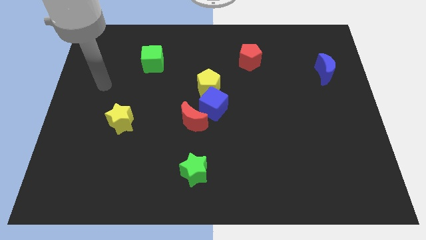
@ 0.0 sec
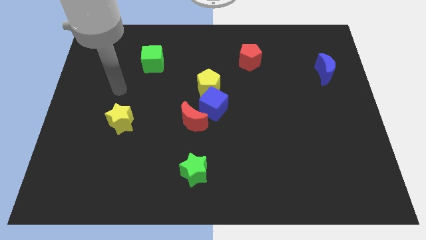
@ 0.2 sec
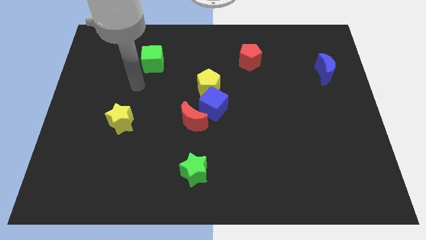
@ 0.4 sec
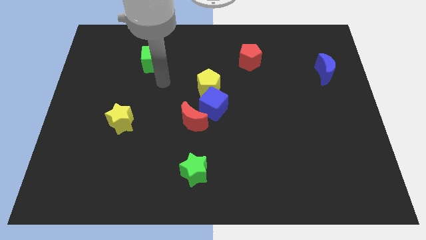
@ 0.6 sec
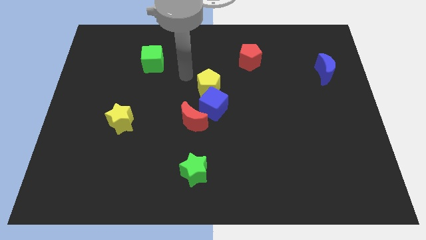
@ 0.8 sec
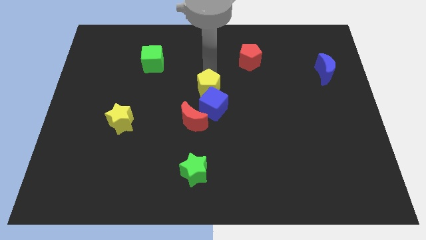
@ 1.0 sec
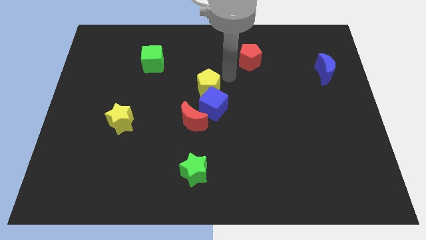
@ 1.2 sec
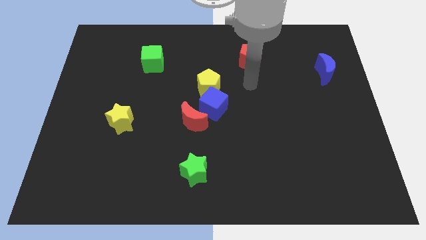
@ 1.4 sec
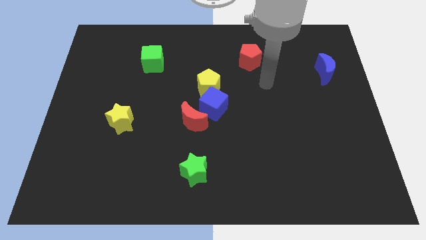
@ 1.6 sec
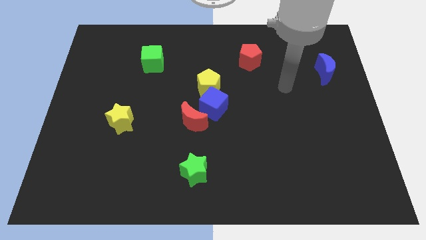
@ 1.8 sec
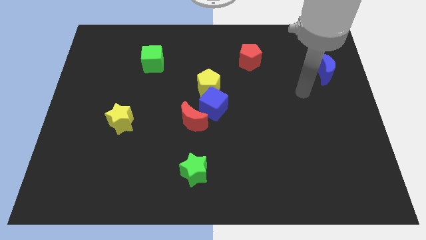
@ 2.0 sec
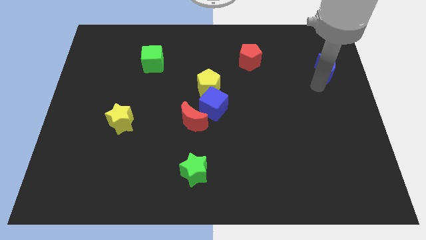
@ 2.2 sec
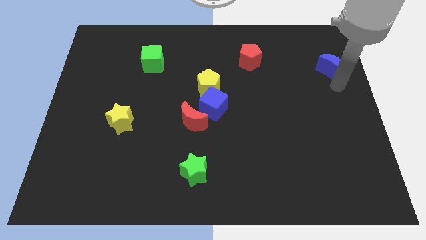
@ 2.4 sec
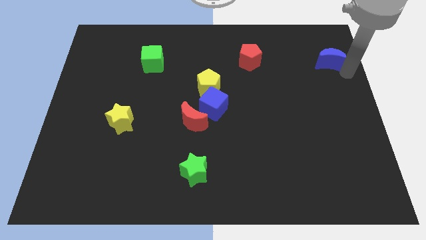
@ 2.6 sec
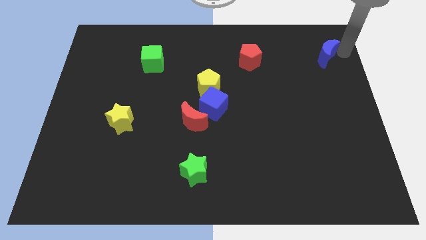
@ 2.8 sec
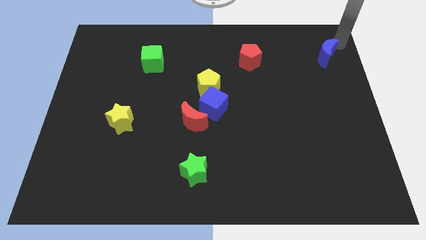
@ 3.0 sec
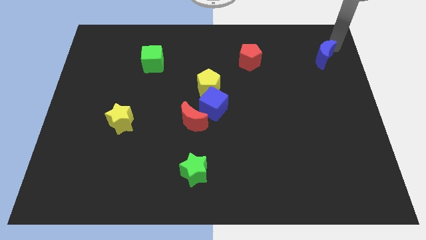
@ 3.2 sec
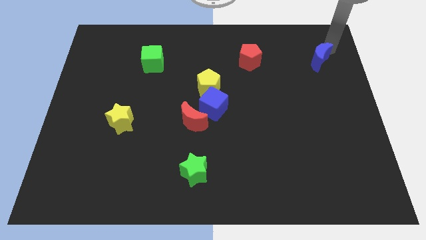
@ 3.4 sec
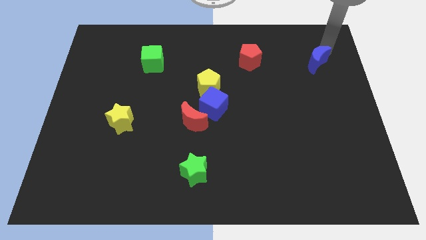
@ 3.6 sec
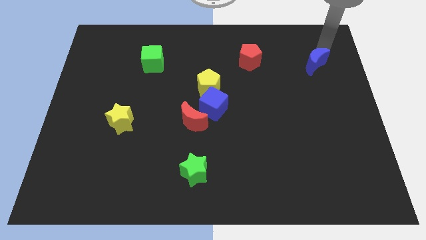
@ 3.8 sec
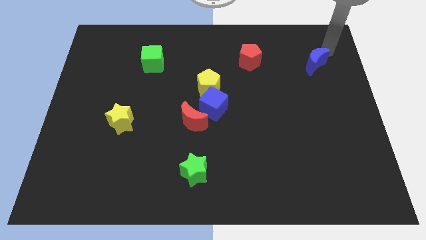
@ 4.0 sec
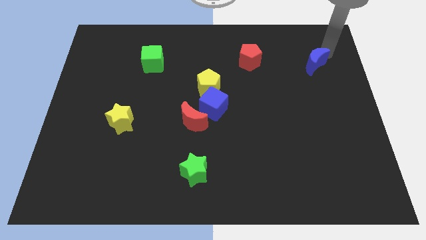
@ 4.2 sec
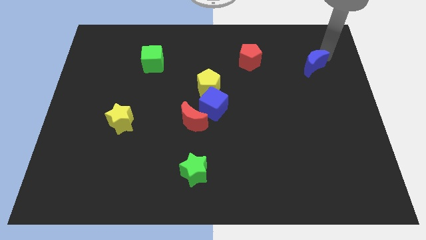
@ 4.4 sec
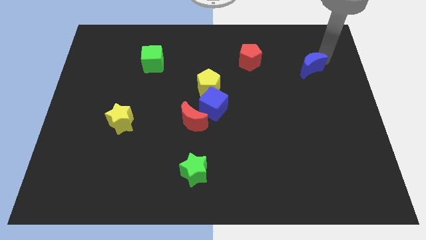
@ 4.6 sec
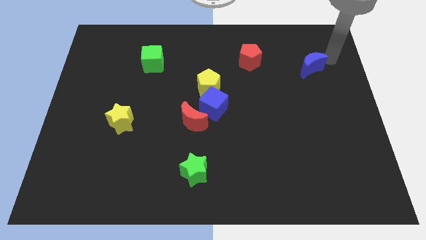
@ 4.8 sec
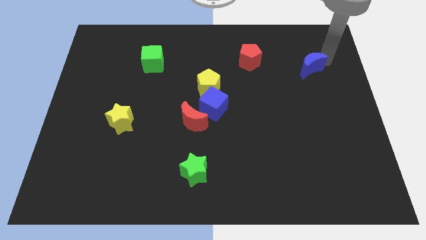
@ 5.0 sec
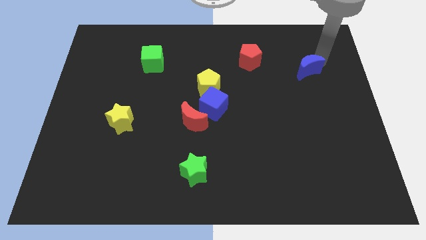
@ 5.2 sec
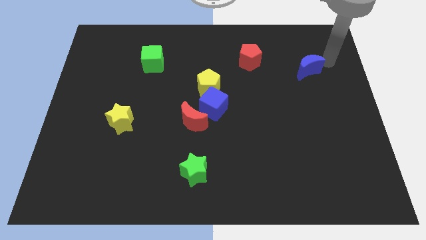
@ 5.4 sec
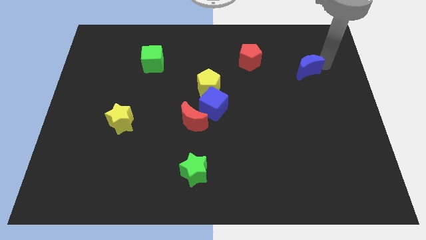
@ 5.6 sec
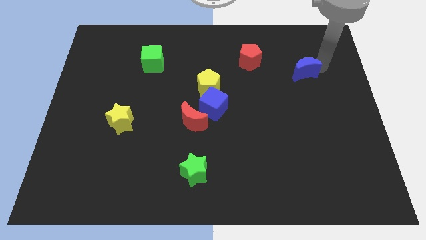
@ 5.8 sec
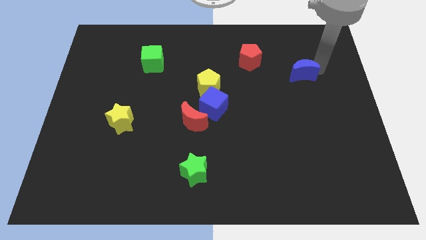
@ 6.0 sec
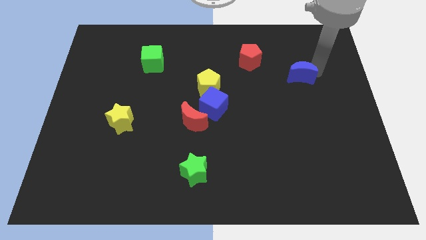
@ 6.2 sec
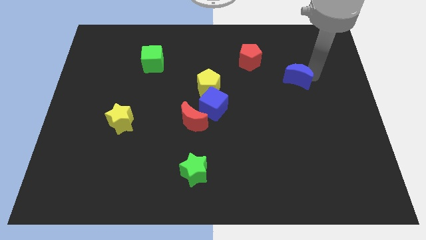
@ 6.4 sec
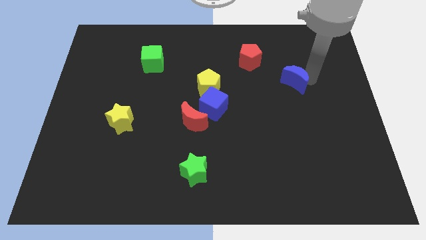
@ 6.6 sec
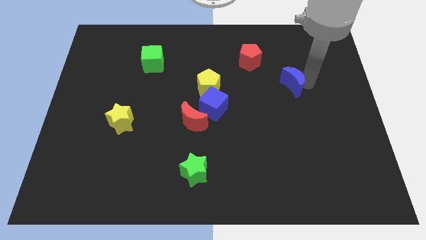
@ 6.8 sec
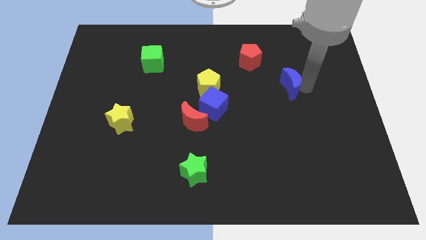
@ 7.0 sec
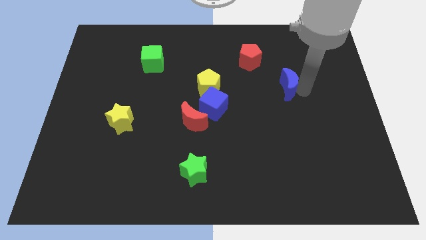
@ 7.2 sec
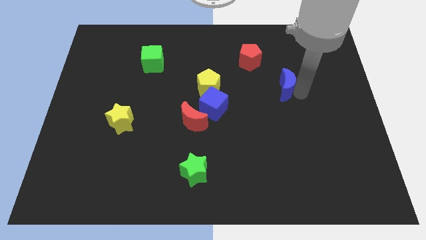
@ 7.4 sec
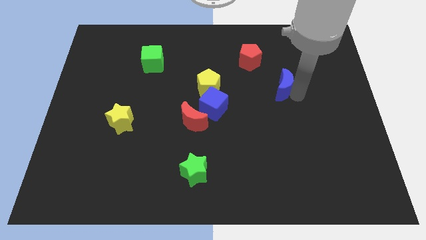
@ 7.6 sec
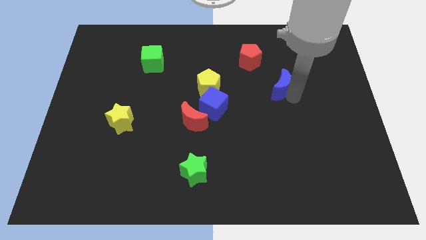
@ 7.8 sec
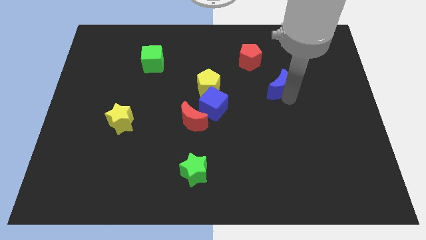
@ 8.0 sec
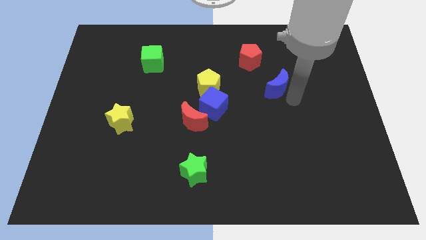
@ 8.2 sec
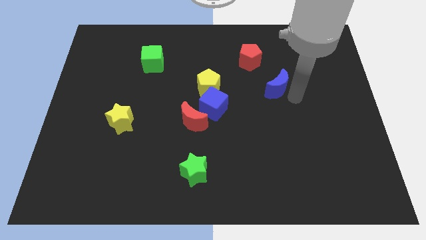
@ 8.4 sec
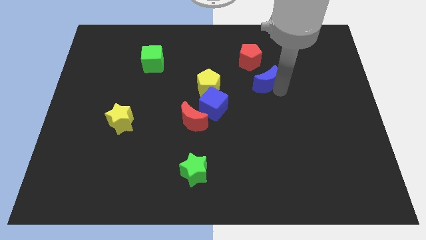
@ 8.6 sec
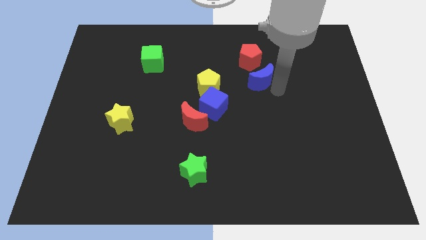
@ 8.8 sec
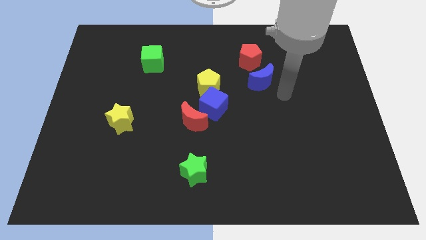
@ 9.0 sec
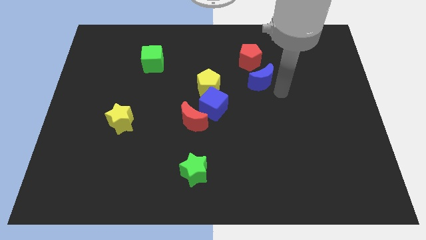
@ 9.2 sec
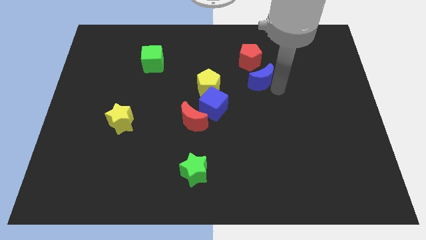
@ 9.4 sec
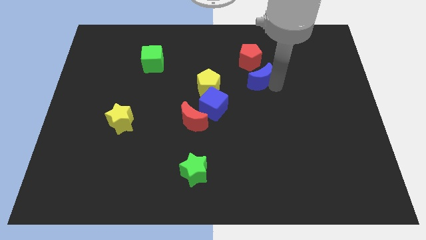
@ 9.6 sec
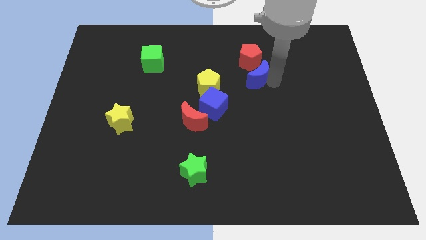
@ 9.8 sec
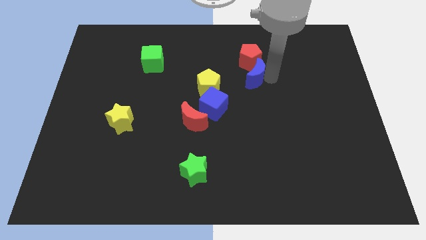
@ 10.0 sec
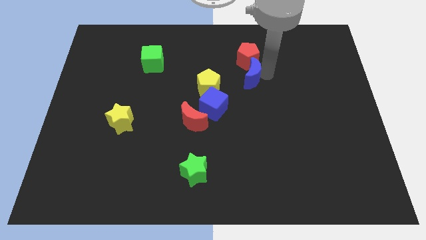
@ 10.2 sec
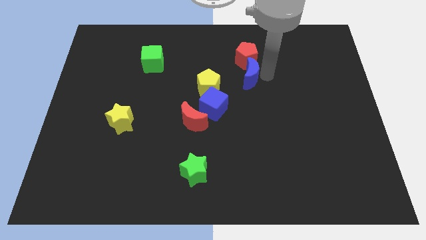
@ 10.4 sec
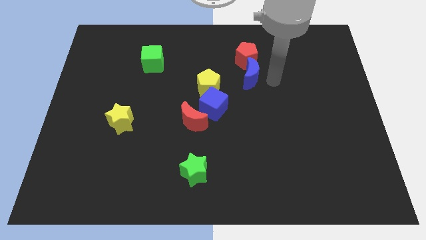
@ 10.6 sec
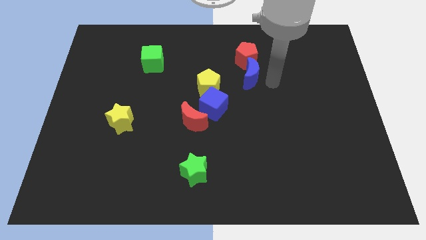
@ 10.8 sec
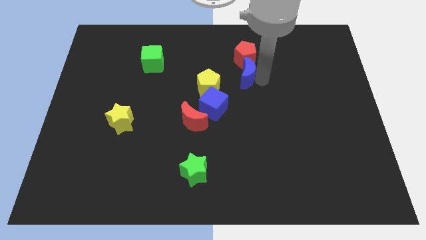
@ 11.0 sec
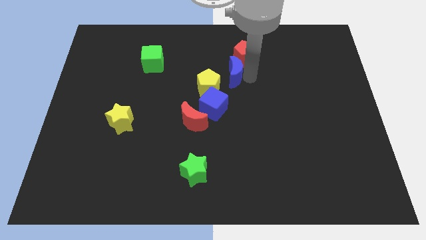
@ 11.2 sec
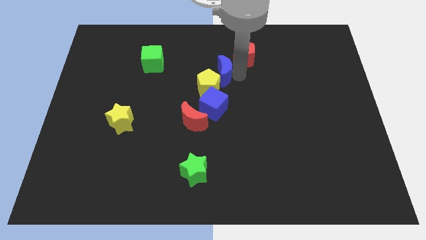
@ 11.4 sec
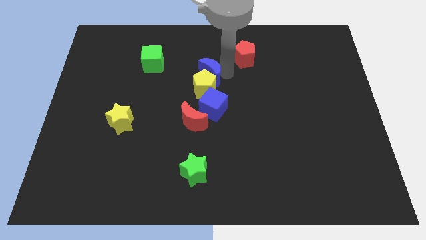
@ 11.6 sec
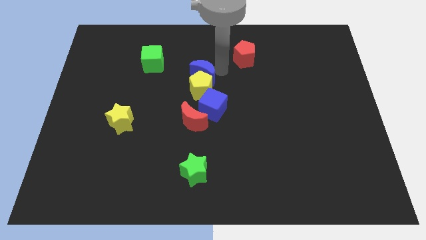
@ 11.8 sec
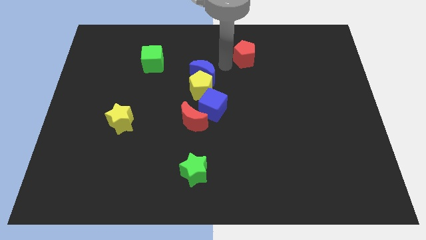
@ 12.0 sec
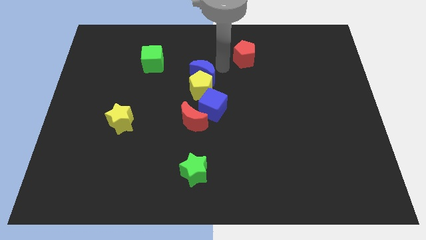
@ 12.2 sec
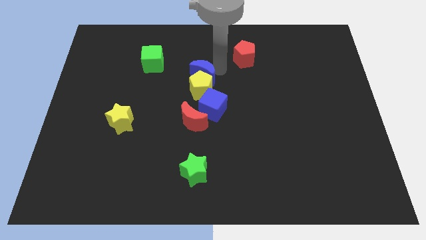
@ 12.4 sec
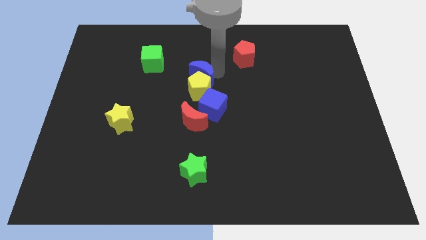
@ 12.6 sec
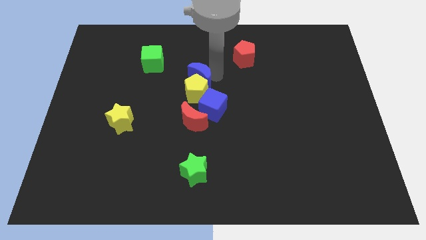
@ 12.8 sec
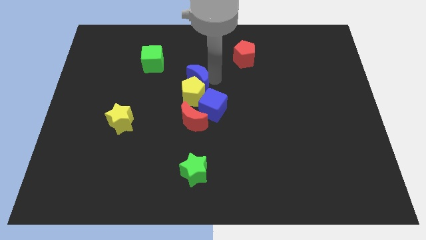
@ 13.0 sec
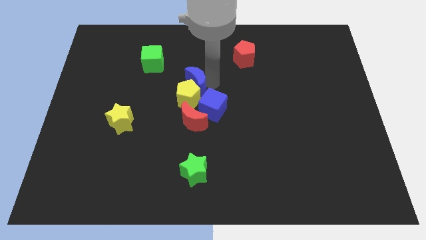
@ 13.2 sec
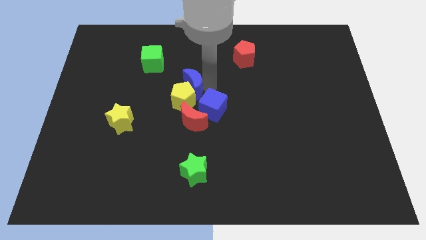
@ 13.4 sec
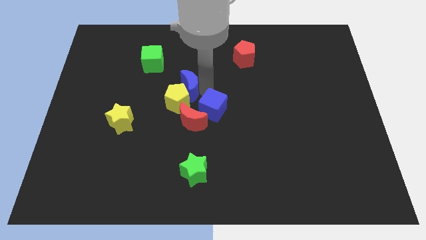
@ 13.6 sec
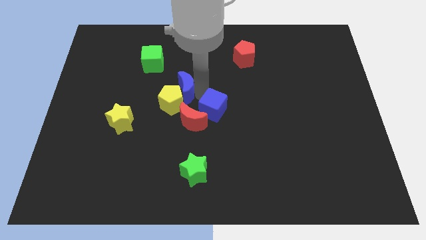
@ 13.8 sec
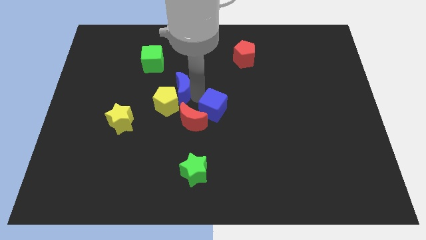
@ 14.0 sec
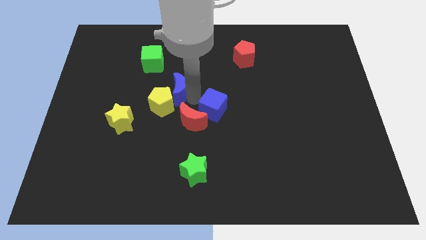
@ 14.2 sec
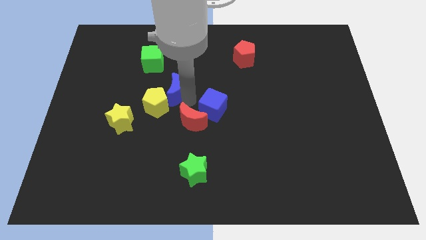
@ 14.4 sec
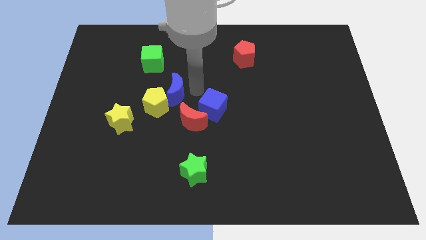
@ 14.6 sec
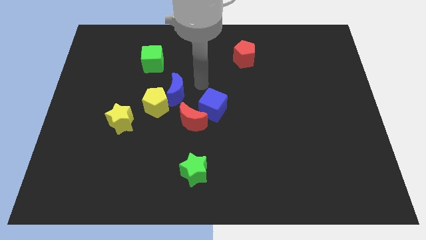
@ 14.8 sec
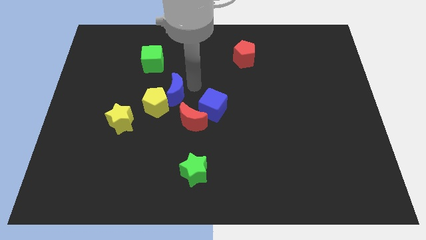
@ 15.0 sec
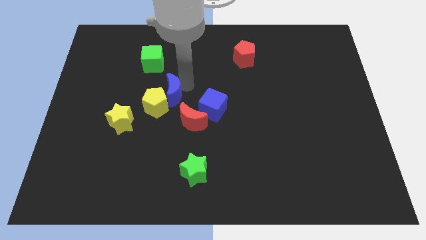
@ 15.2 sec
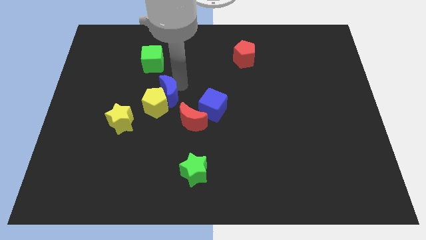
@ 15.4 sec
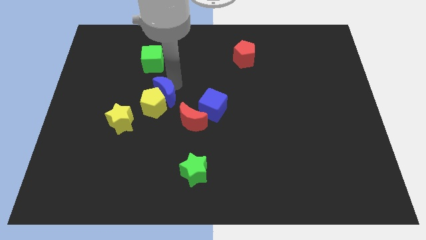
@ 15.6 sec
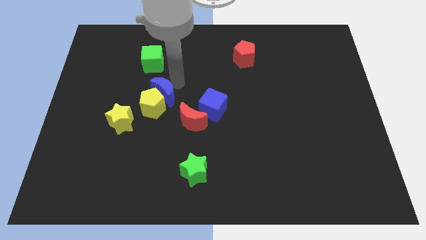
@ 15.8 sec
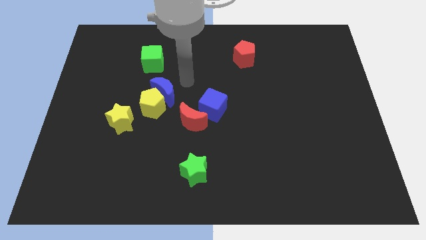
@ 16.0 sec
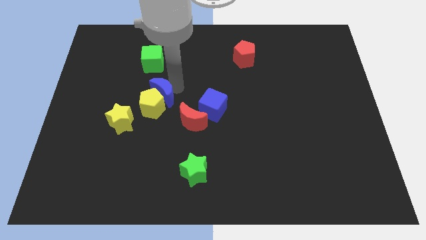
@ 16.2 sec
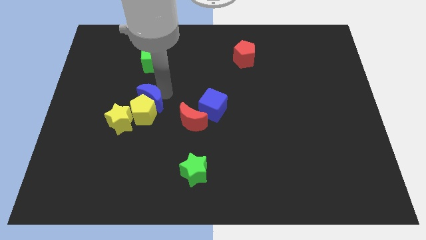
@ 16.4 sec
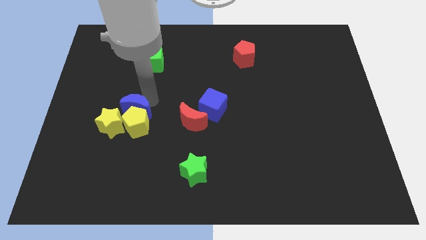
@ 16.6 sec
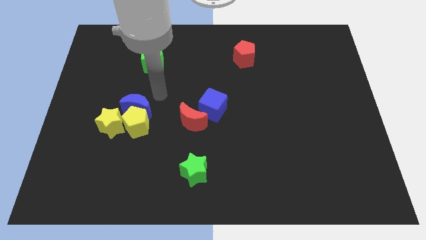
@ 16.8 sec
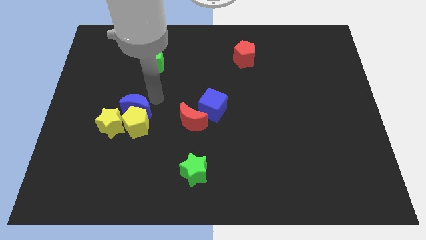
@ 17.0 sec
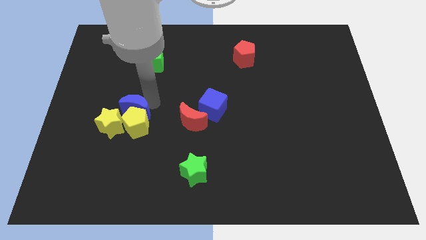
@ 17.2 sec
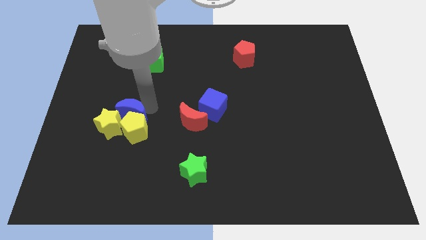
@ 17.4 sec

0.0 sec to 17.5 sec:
put the blue moon next to the yellow star
